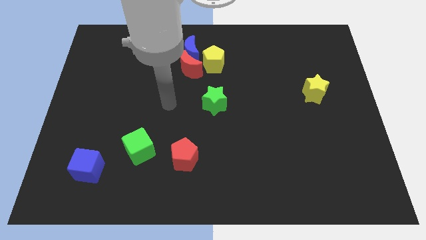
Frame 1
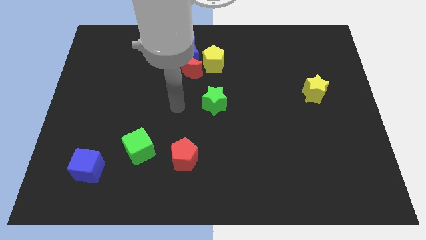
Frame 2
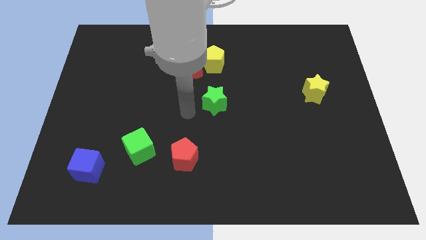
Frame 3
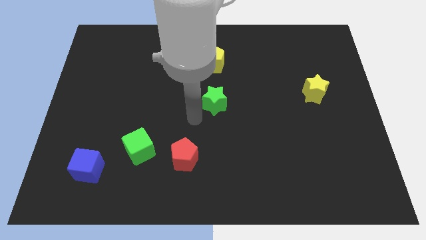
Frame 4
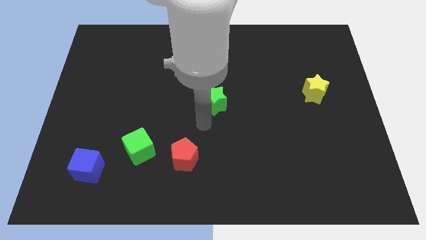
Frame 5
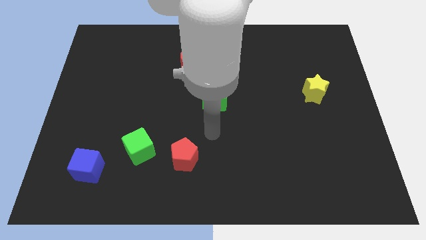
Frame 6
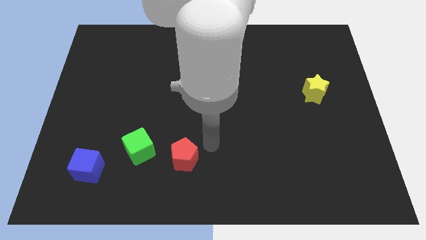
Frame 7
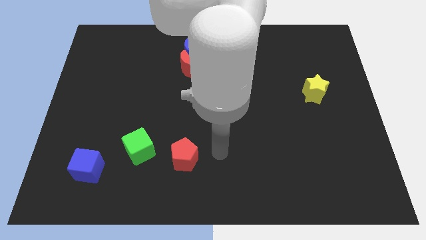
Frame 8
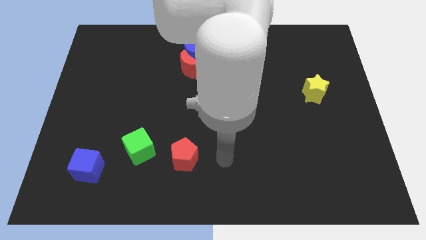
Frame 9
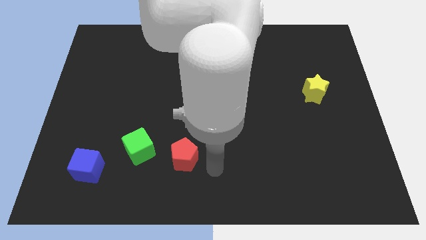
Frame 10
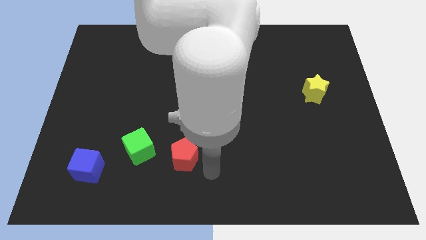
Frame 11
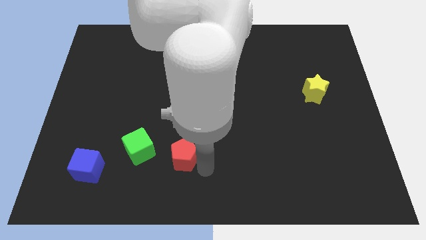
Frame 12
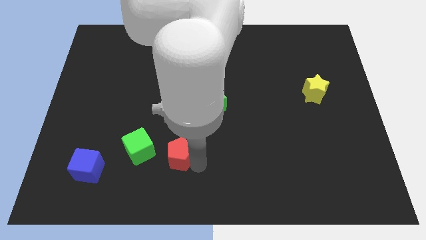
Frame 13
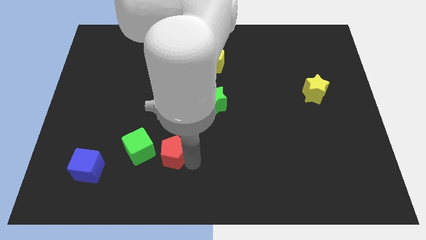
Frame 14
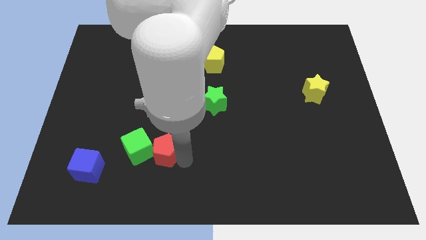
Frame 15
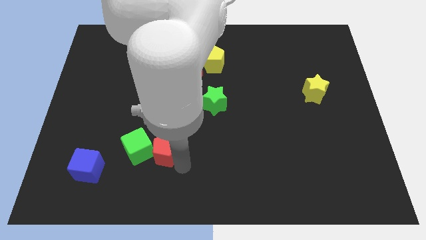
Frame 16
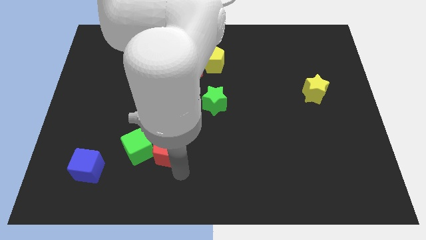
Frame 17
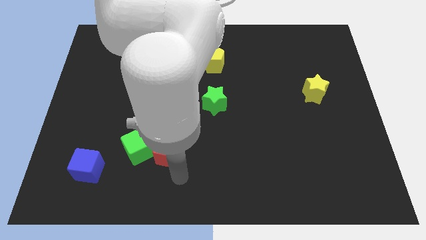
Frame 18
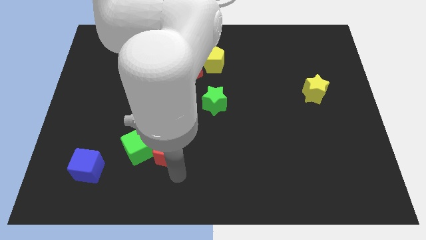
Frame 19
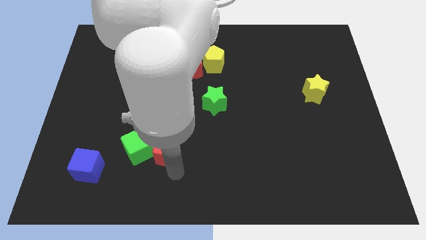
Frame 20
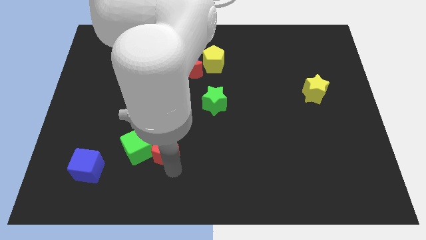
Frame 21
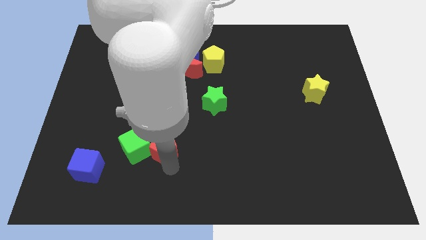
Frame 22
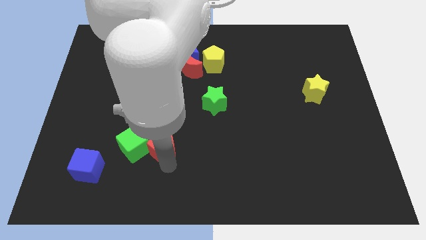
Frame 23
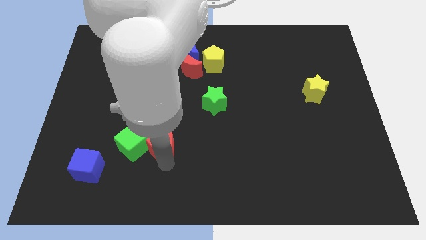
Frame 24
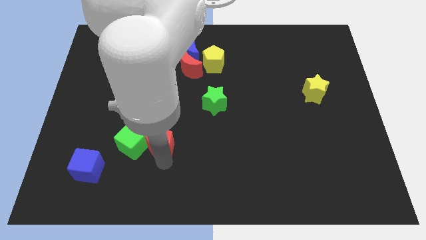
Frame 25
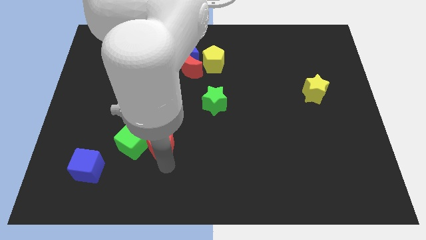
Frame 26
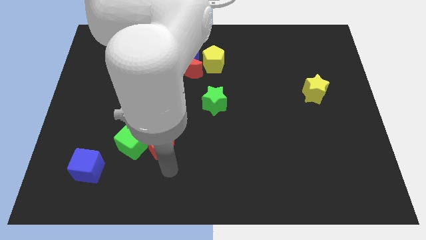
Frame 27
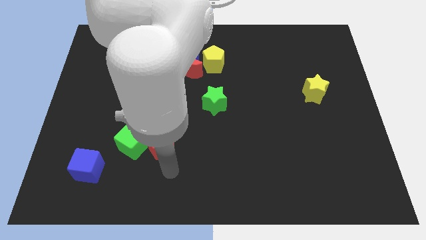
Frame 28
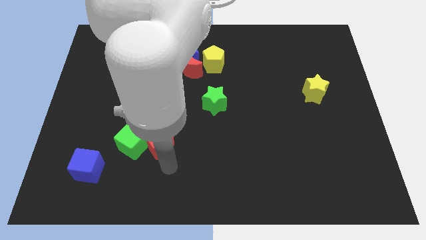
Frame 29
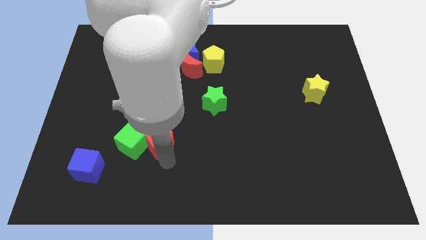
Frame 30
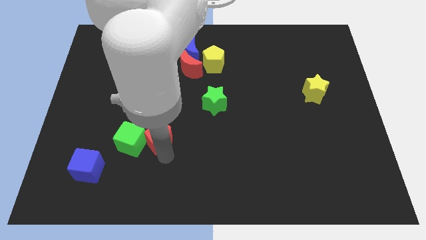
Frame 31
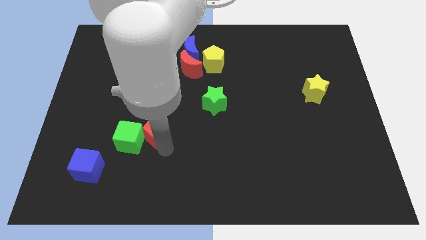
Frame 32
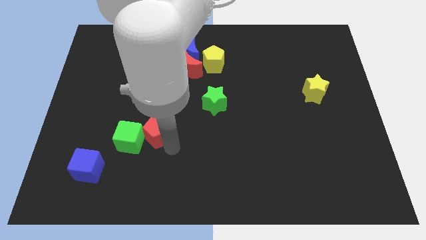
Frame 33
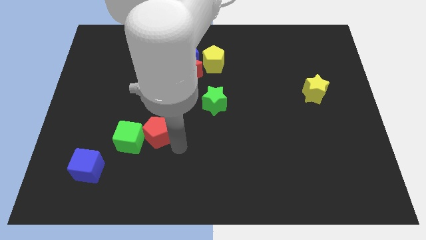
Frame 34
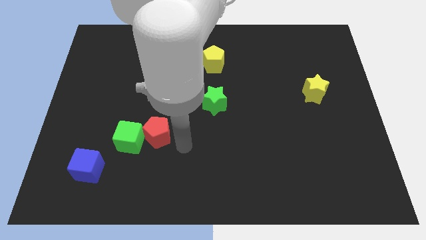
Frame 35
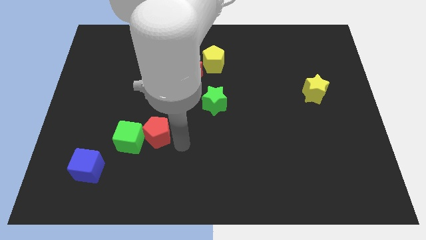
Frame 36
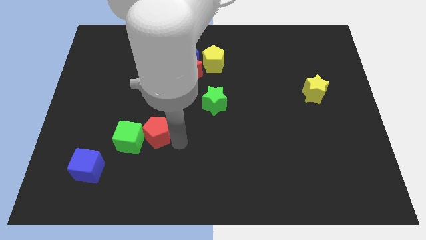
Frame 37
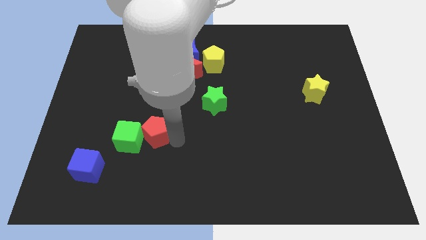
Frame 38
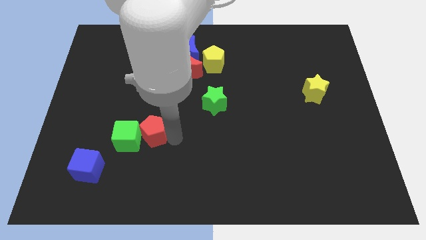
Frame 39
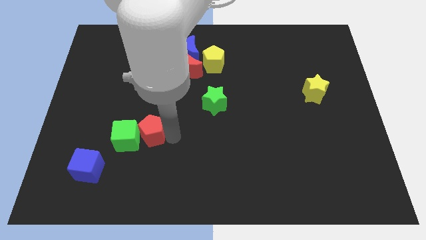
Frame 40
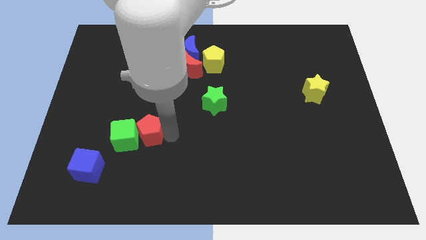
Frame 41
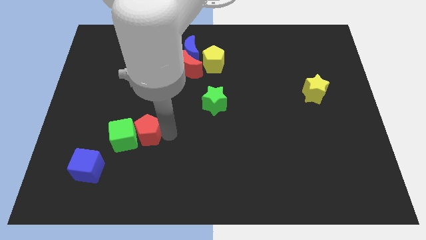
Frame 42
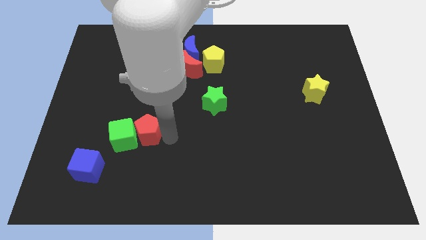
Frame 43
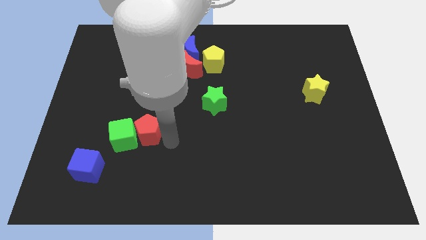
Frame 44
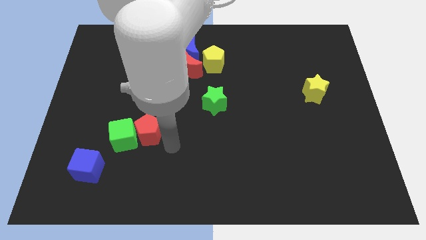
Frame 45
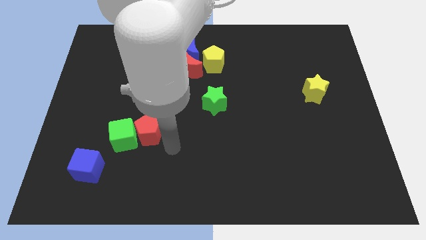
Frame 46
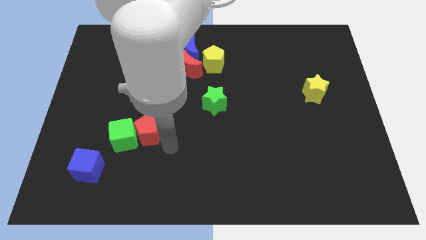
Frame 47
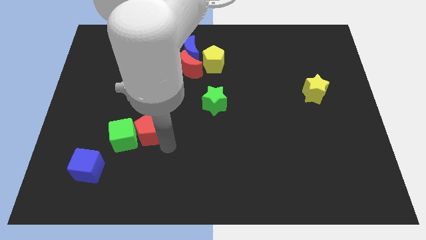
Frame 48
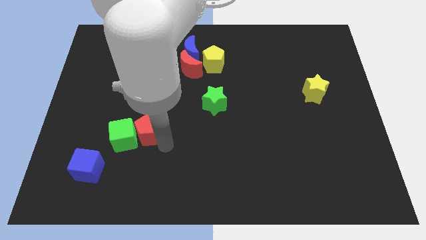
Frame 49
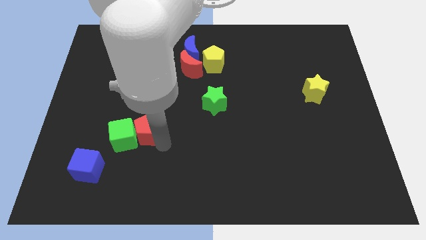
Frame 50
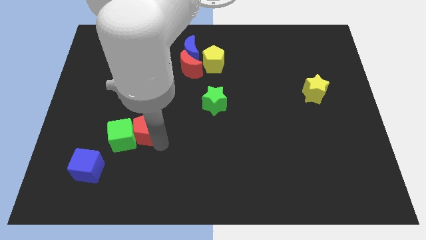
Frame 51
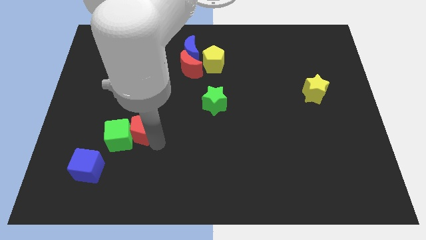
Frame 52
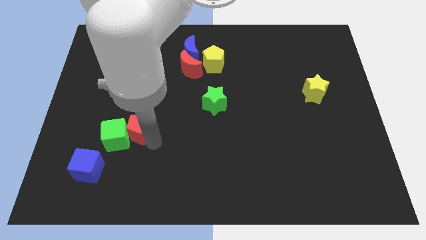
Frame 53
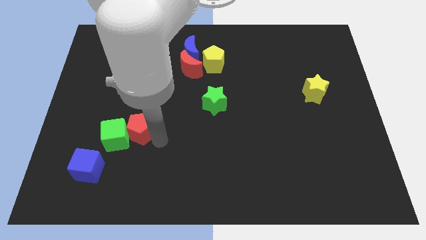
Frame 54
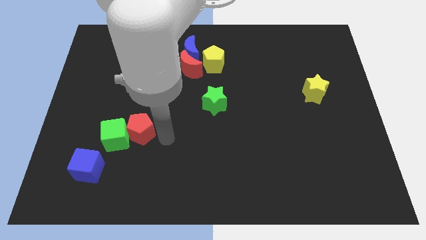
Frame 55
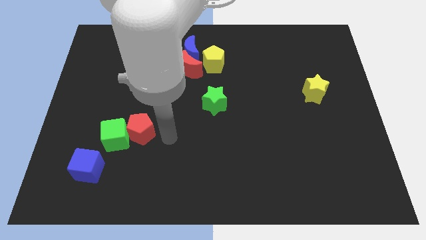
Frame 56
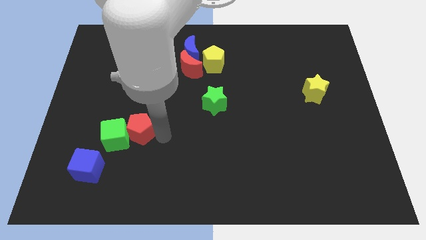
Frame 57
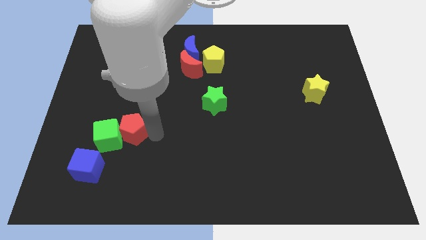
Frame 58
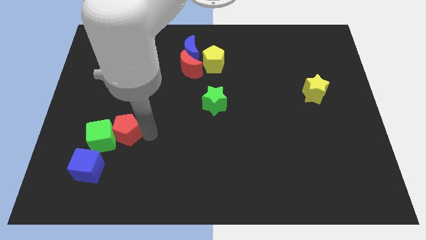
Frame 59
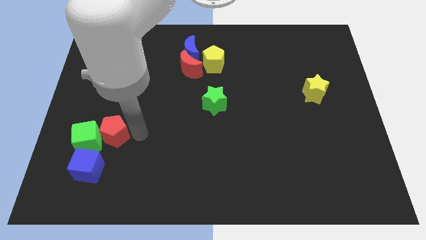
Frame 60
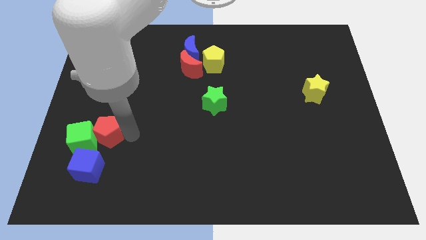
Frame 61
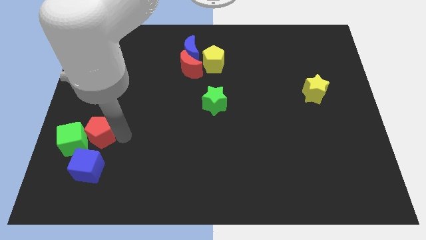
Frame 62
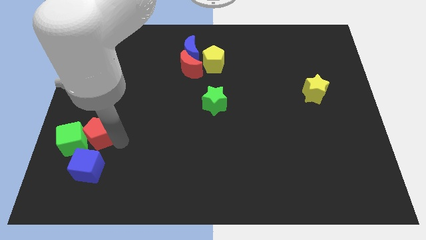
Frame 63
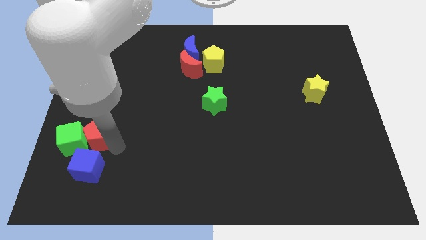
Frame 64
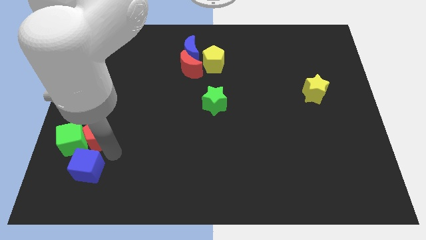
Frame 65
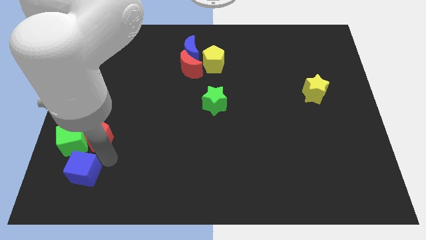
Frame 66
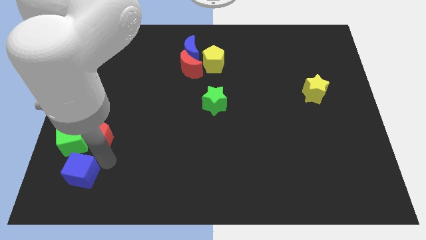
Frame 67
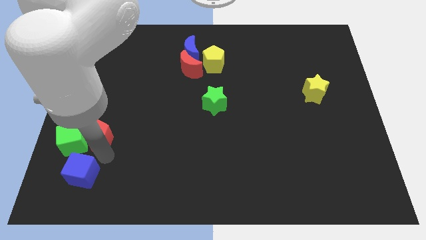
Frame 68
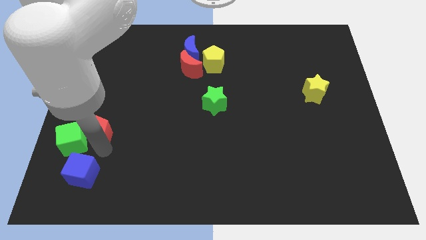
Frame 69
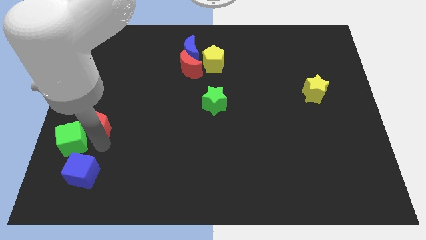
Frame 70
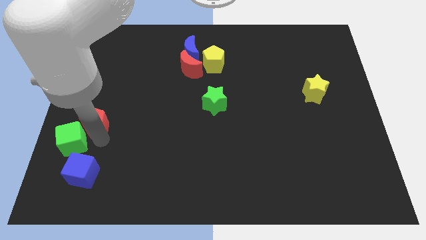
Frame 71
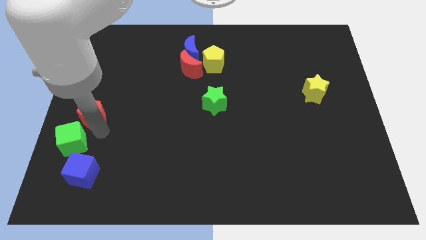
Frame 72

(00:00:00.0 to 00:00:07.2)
slide the red pentagon to the center left
